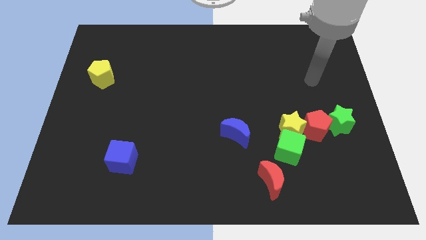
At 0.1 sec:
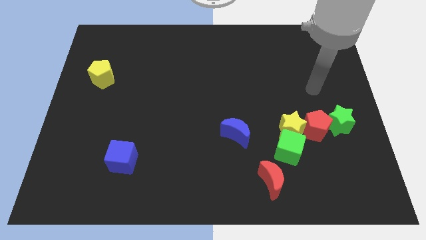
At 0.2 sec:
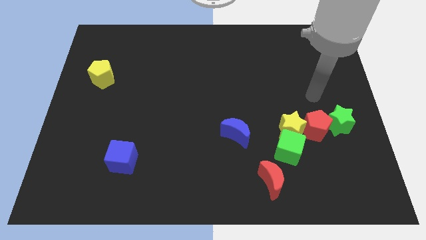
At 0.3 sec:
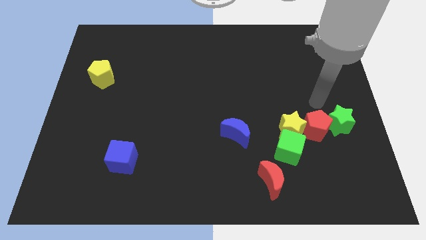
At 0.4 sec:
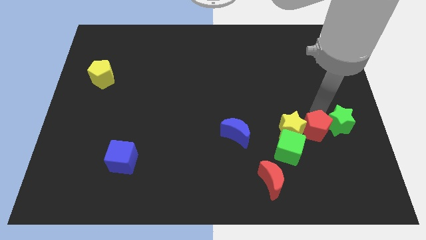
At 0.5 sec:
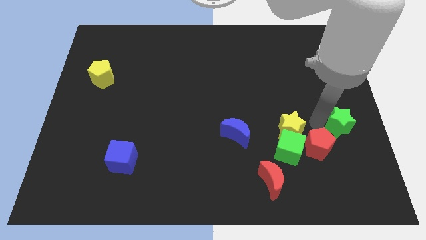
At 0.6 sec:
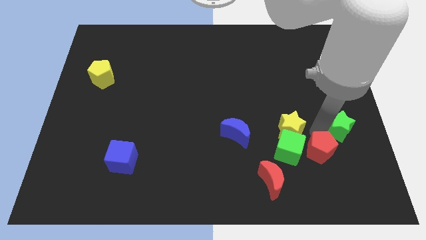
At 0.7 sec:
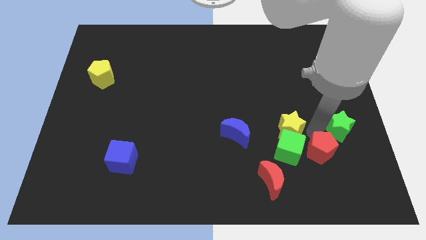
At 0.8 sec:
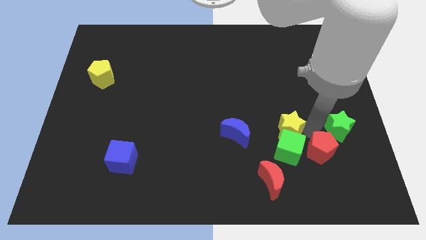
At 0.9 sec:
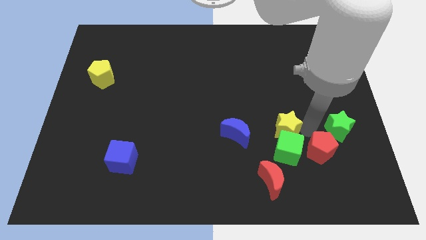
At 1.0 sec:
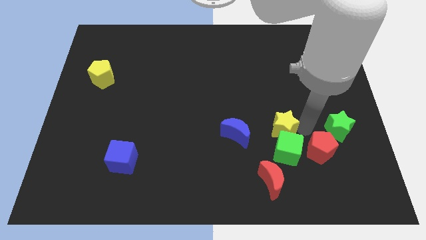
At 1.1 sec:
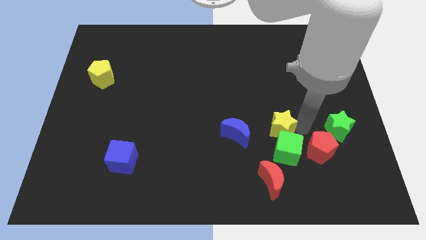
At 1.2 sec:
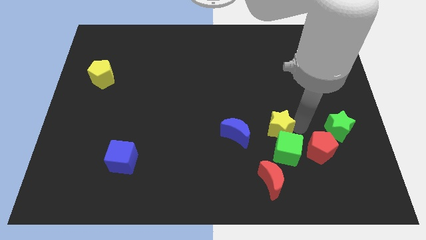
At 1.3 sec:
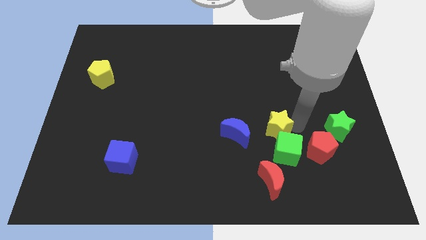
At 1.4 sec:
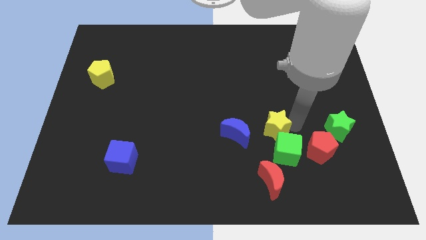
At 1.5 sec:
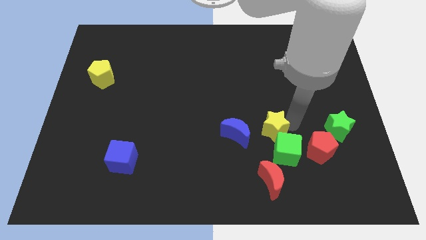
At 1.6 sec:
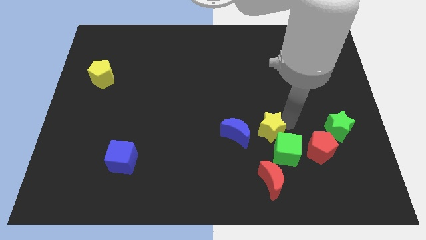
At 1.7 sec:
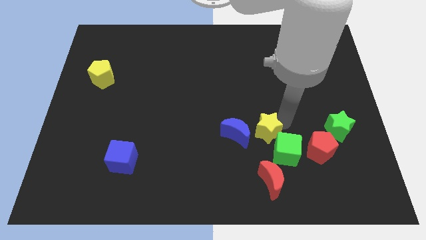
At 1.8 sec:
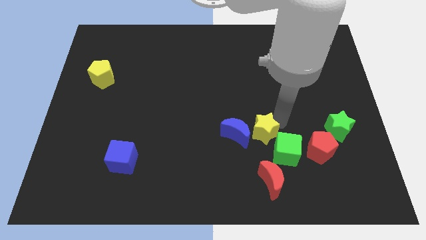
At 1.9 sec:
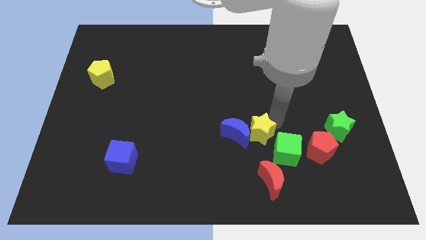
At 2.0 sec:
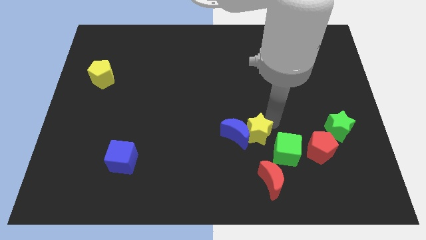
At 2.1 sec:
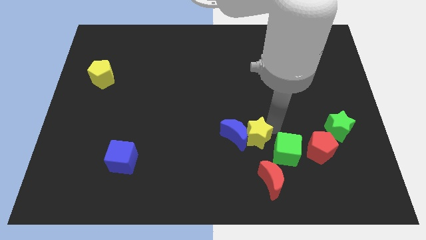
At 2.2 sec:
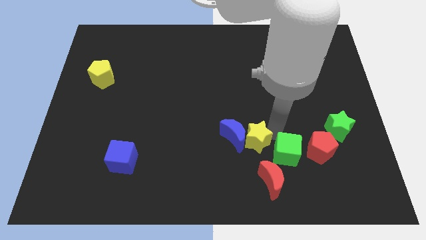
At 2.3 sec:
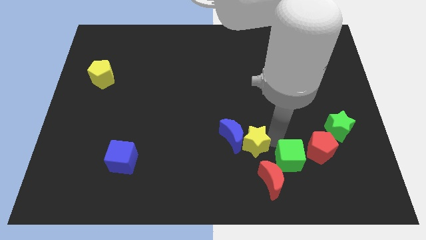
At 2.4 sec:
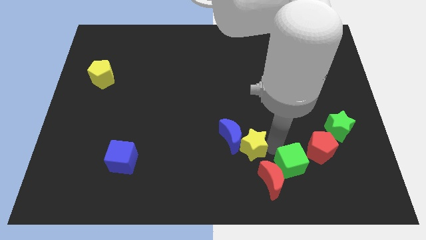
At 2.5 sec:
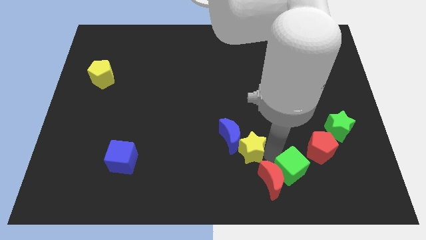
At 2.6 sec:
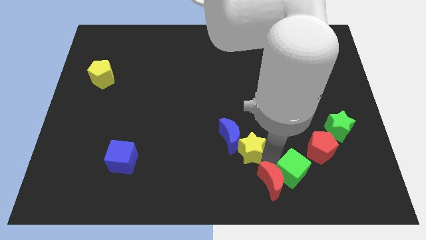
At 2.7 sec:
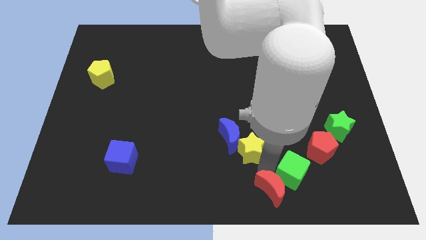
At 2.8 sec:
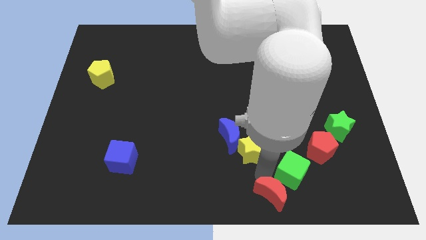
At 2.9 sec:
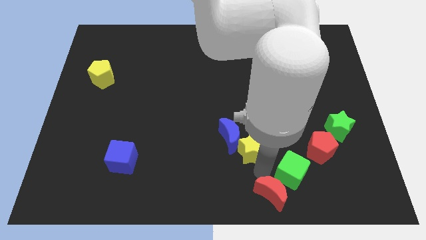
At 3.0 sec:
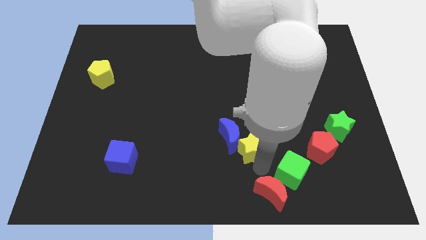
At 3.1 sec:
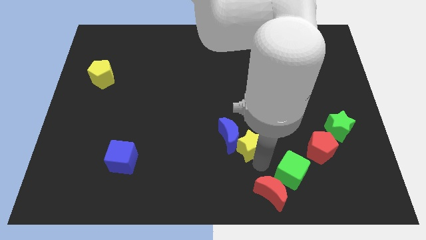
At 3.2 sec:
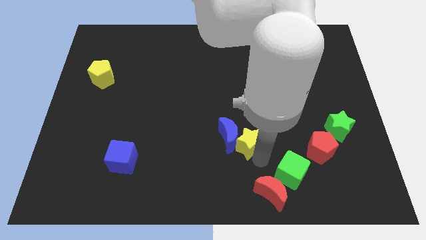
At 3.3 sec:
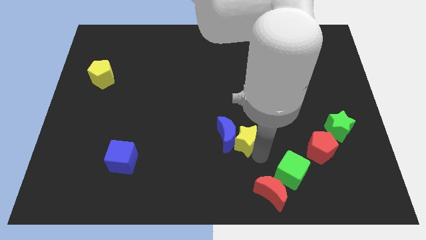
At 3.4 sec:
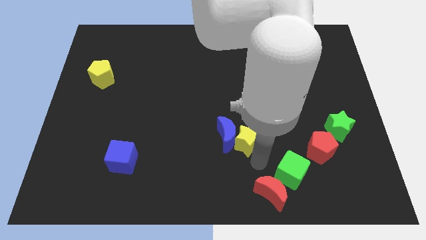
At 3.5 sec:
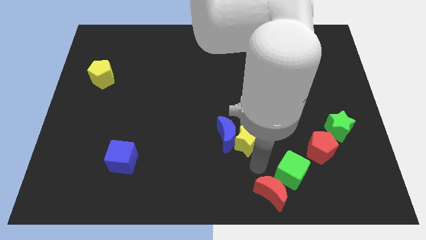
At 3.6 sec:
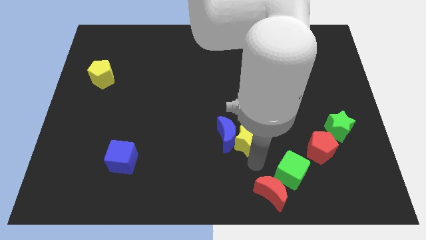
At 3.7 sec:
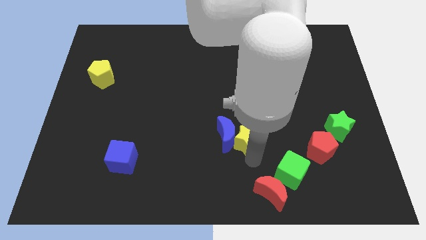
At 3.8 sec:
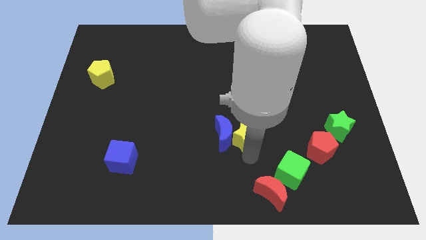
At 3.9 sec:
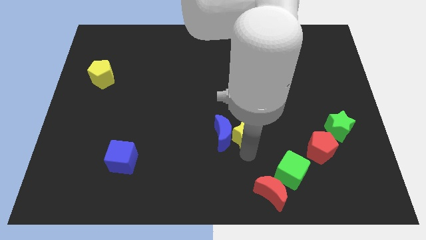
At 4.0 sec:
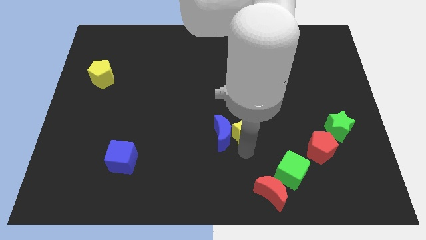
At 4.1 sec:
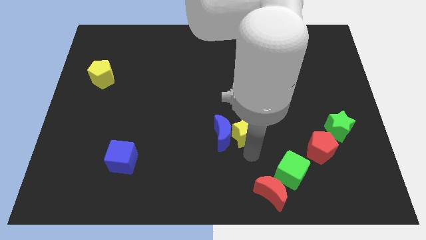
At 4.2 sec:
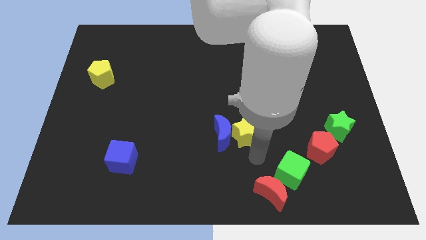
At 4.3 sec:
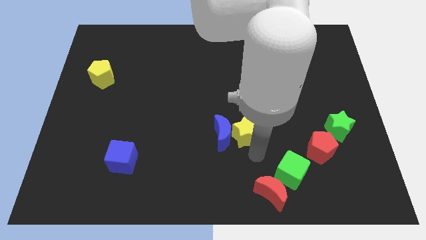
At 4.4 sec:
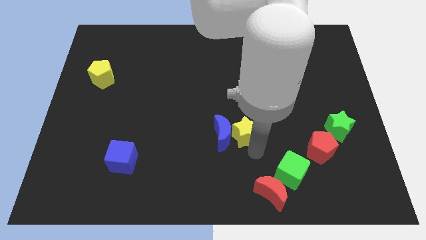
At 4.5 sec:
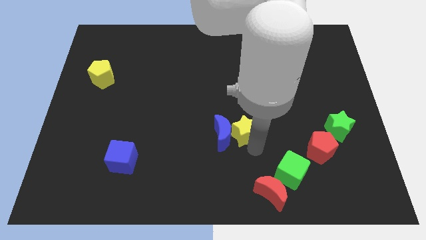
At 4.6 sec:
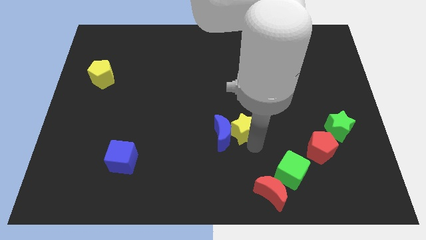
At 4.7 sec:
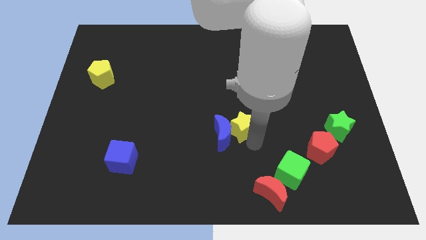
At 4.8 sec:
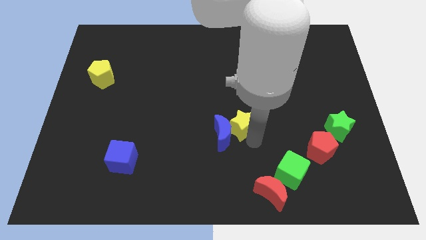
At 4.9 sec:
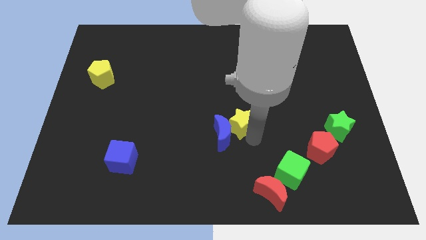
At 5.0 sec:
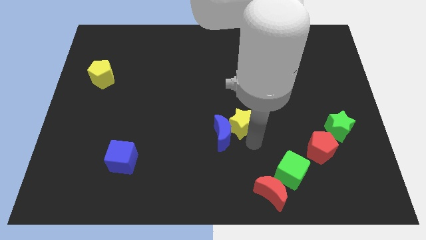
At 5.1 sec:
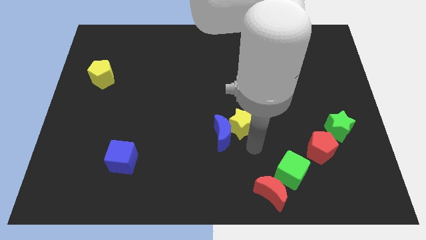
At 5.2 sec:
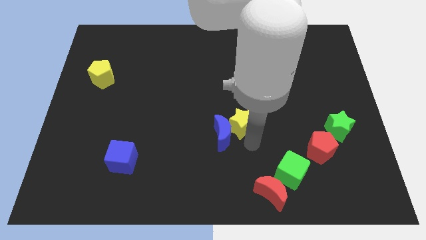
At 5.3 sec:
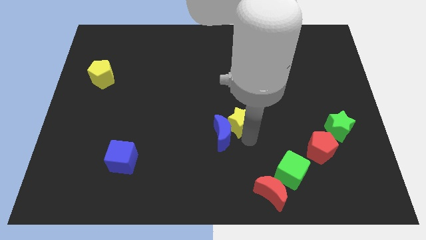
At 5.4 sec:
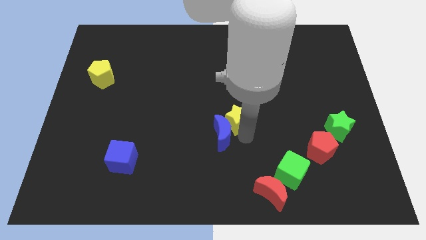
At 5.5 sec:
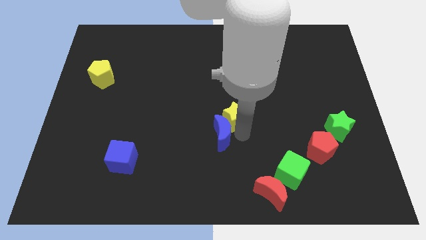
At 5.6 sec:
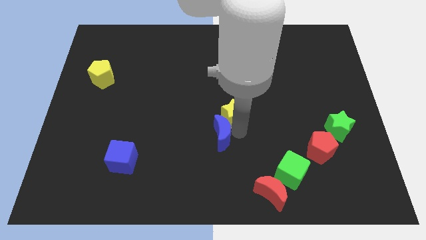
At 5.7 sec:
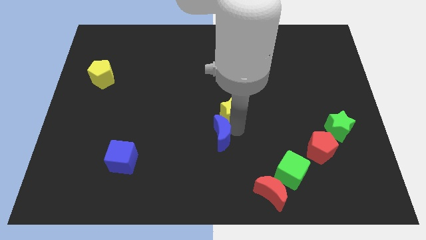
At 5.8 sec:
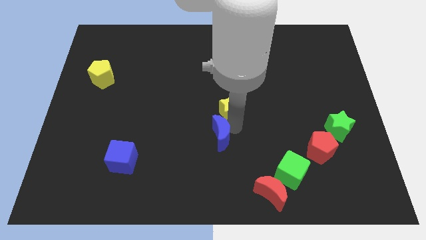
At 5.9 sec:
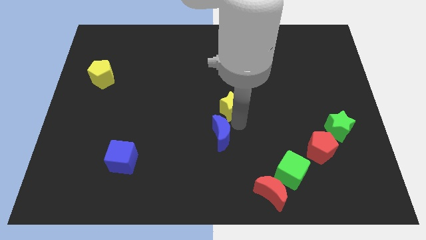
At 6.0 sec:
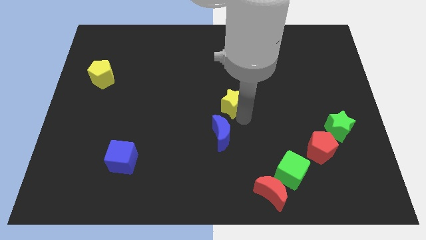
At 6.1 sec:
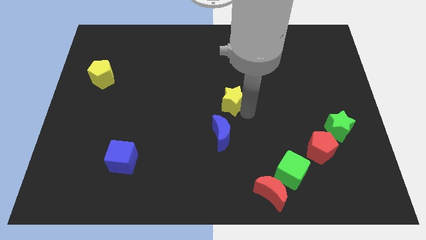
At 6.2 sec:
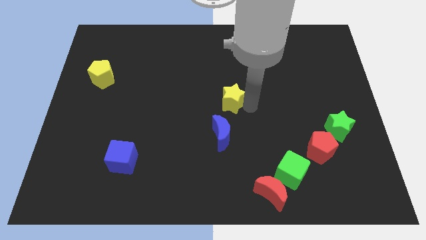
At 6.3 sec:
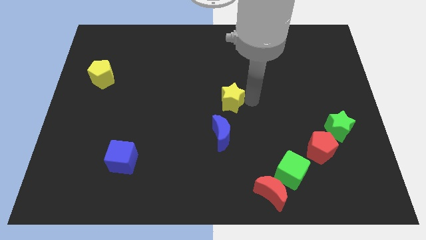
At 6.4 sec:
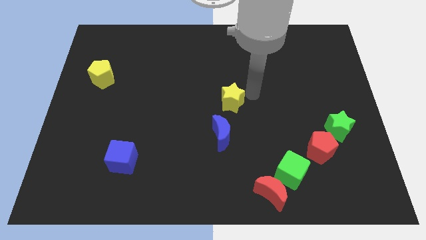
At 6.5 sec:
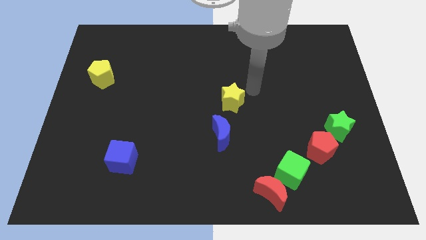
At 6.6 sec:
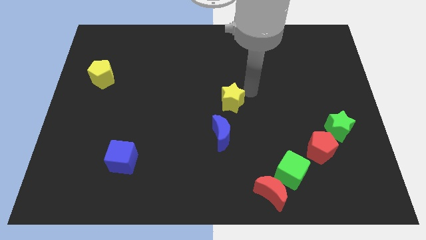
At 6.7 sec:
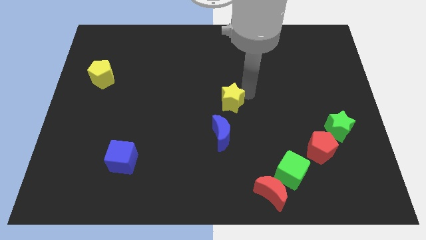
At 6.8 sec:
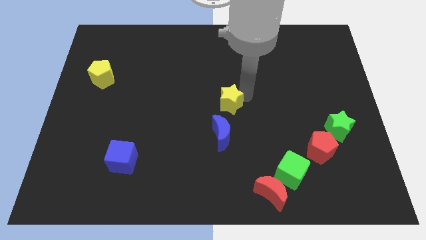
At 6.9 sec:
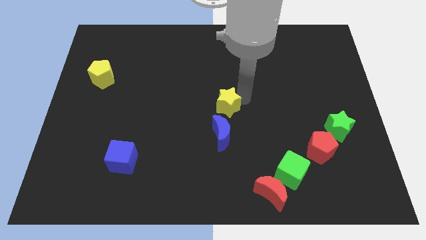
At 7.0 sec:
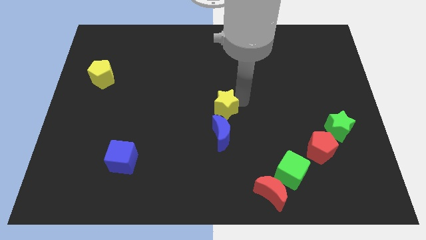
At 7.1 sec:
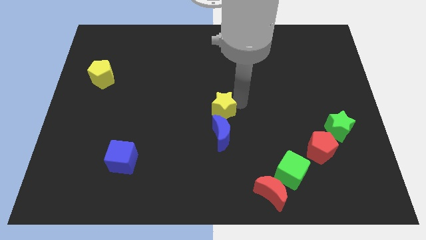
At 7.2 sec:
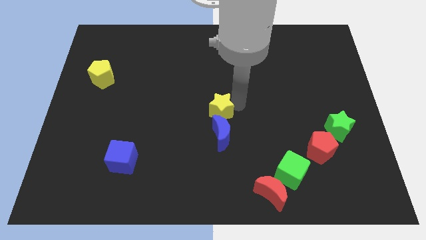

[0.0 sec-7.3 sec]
slide the yellow star to the top left side of the blue moon

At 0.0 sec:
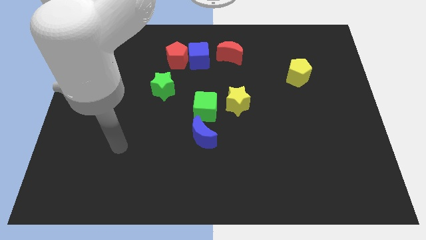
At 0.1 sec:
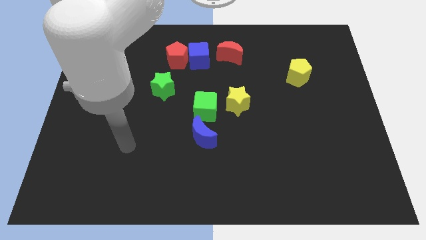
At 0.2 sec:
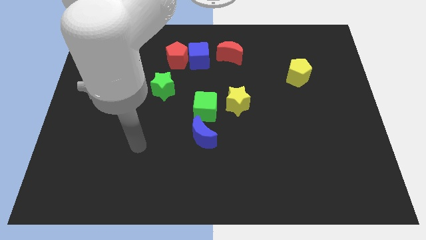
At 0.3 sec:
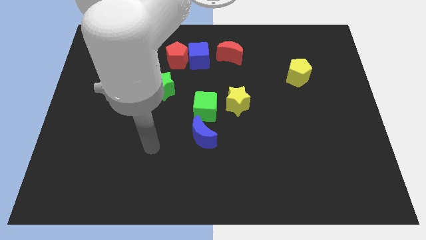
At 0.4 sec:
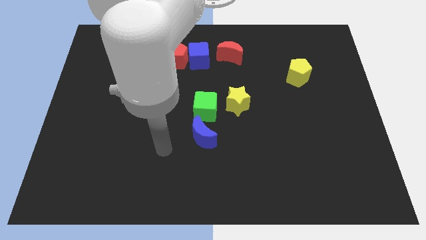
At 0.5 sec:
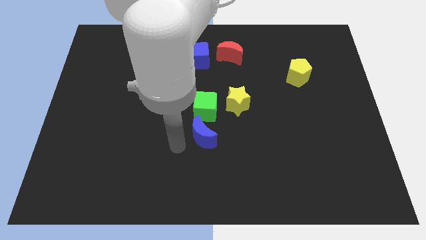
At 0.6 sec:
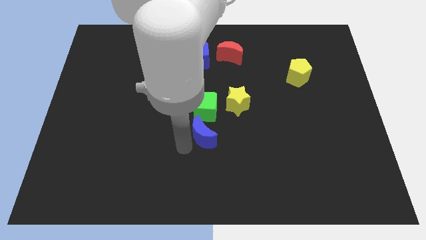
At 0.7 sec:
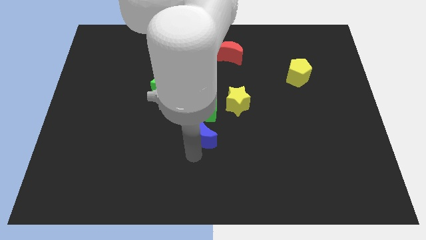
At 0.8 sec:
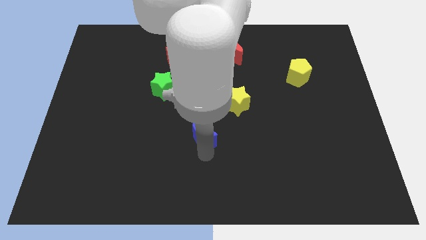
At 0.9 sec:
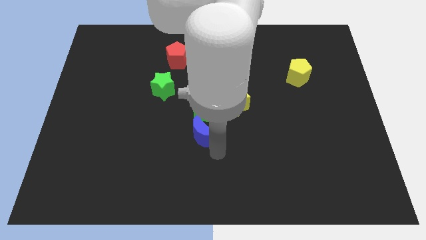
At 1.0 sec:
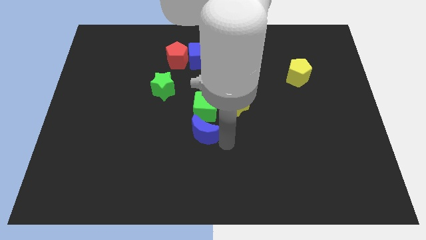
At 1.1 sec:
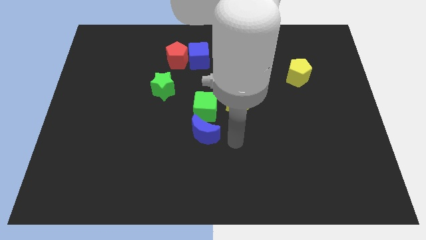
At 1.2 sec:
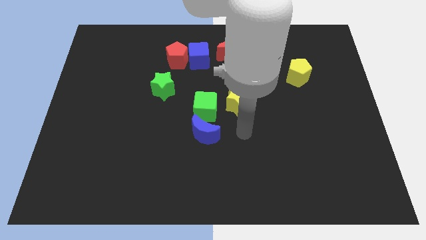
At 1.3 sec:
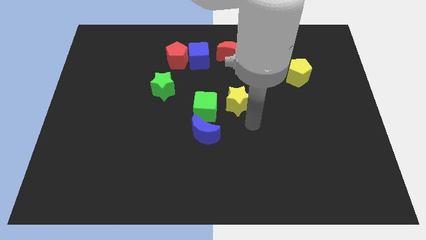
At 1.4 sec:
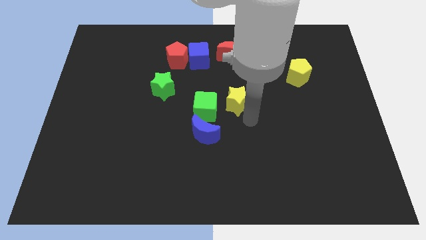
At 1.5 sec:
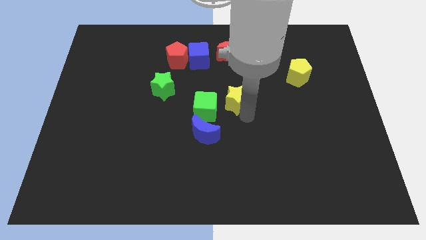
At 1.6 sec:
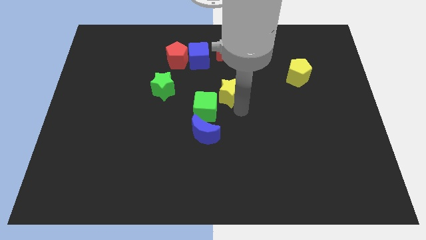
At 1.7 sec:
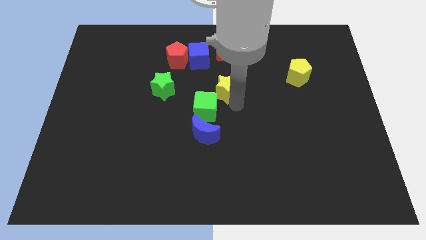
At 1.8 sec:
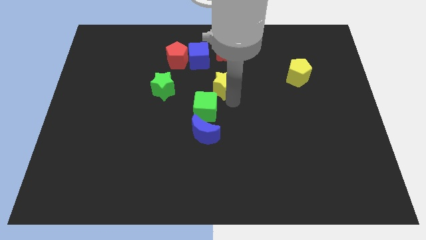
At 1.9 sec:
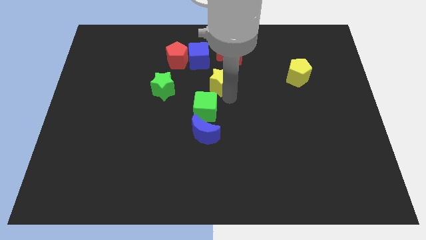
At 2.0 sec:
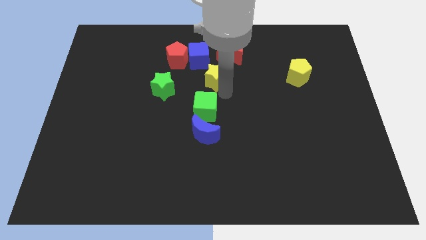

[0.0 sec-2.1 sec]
push the yellow star to the bottom left side of the red moon
